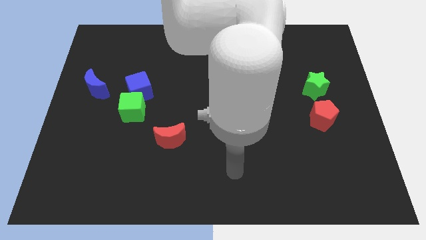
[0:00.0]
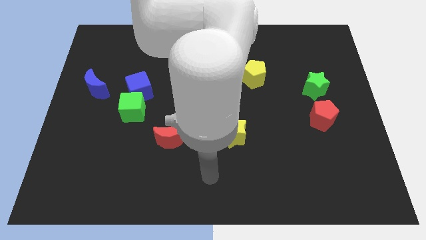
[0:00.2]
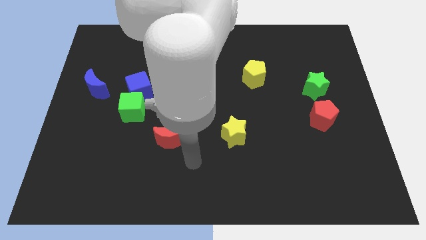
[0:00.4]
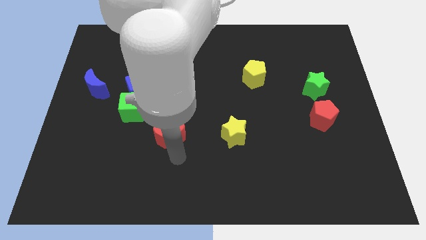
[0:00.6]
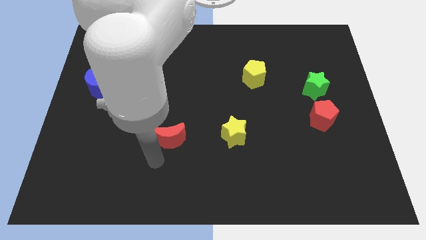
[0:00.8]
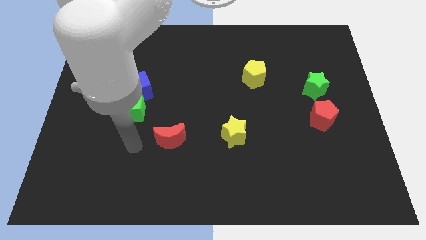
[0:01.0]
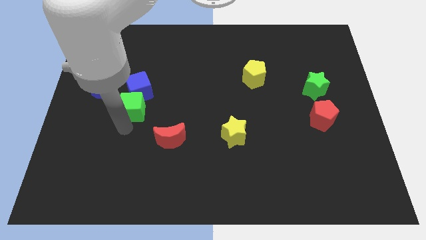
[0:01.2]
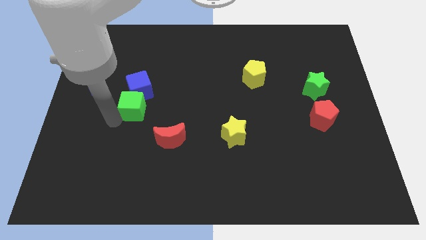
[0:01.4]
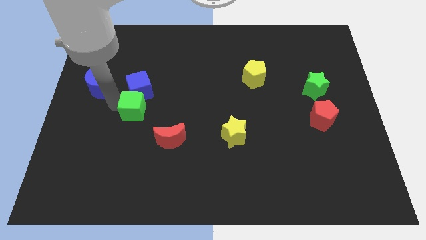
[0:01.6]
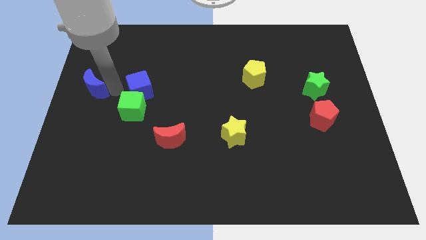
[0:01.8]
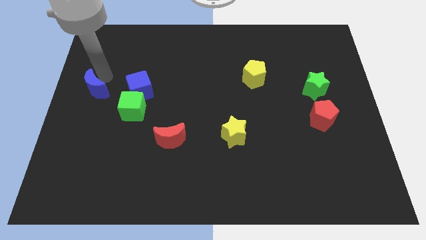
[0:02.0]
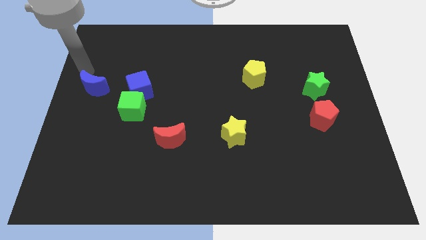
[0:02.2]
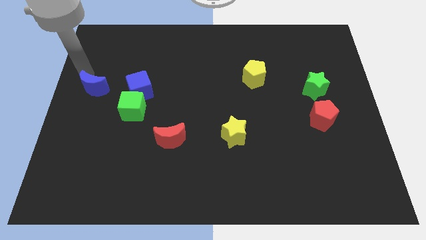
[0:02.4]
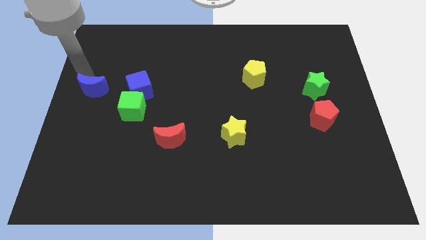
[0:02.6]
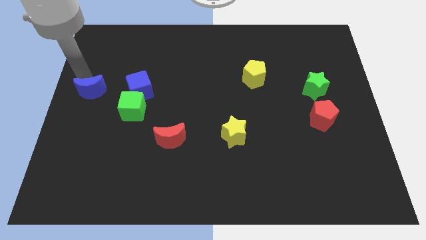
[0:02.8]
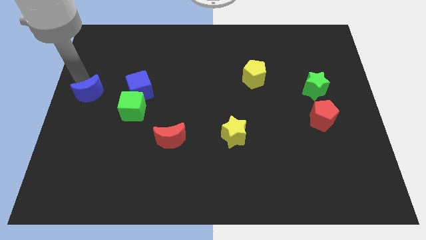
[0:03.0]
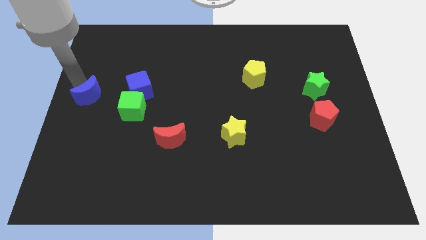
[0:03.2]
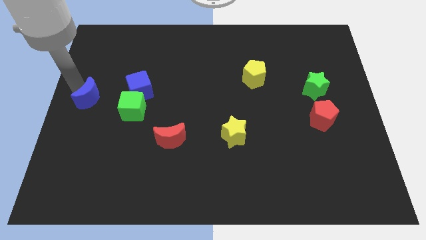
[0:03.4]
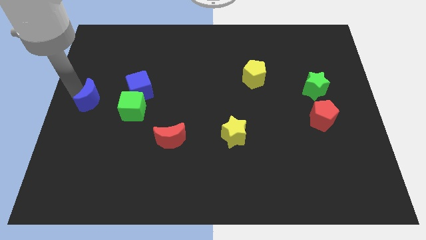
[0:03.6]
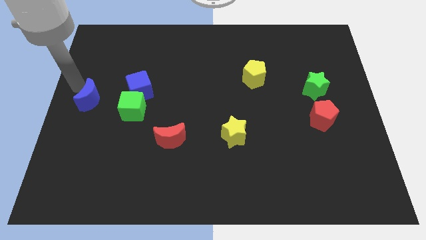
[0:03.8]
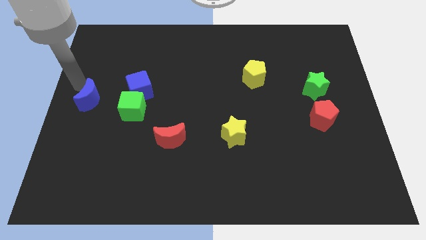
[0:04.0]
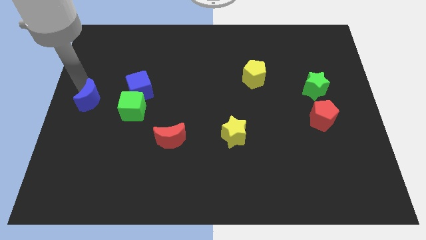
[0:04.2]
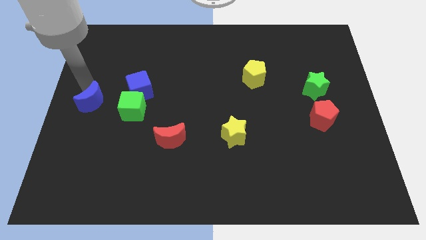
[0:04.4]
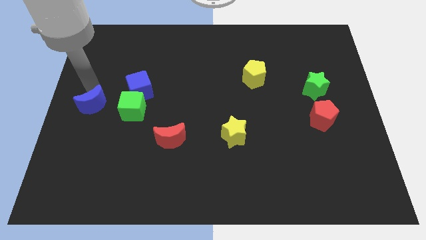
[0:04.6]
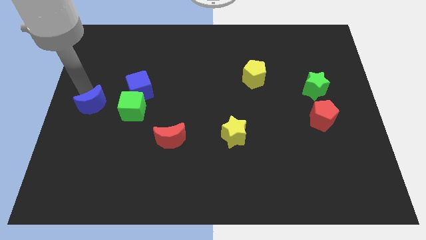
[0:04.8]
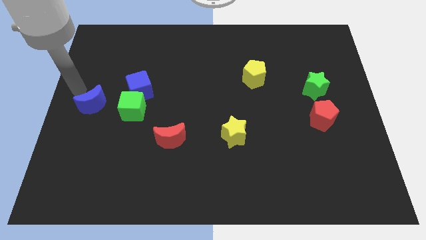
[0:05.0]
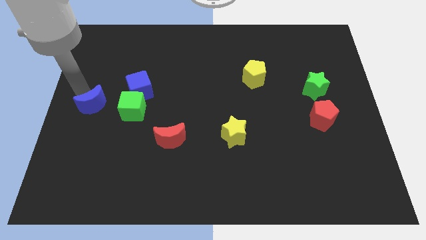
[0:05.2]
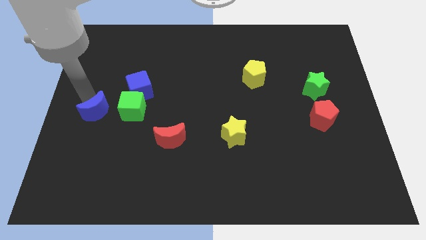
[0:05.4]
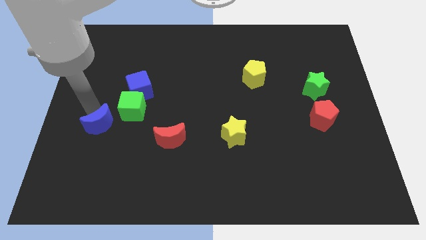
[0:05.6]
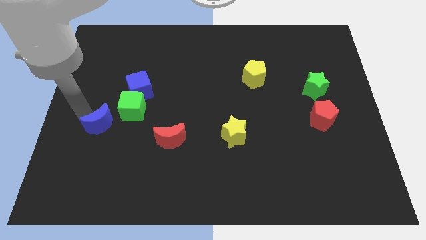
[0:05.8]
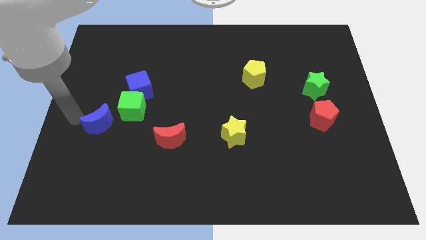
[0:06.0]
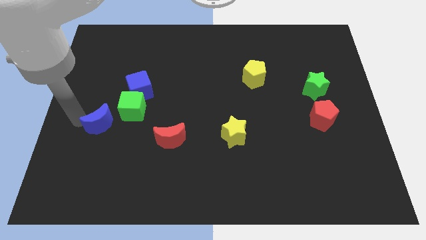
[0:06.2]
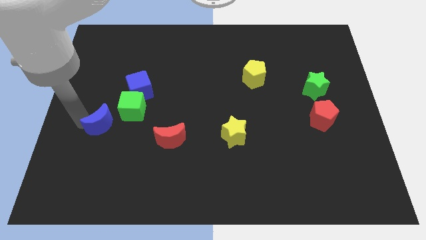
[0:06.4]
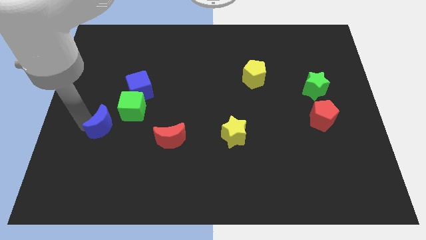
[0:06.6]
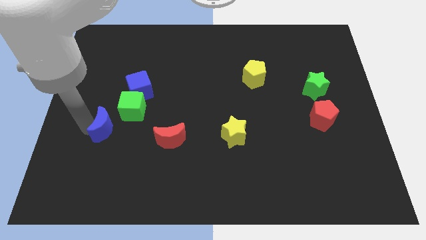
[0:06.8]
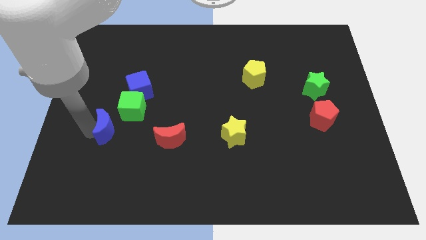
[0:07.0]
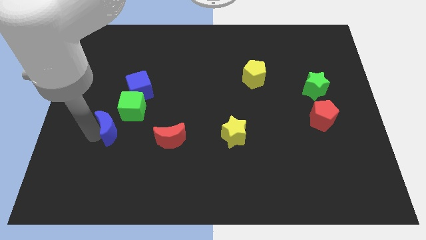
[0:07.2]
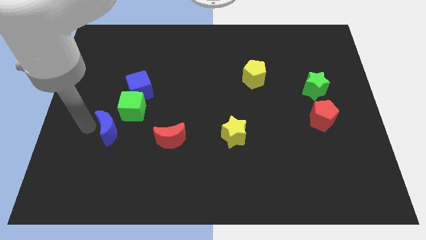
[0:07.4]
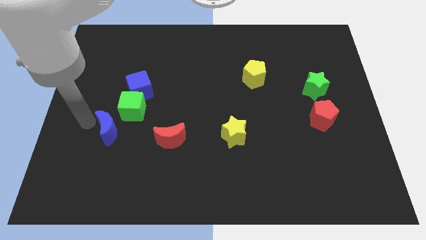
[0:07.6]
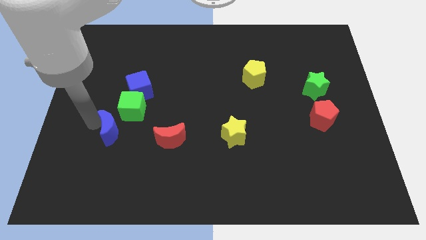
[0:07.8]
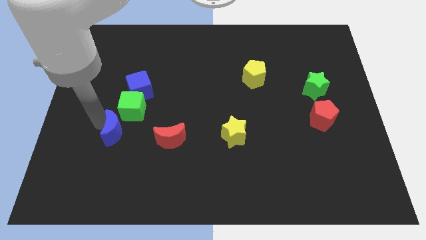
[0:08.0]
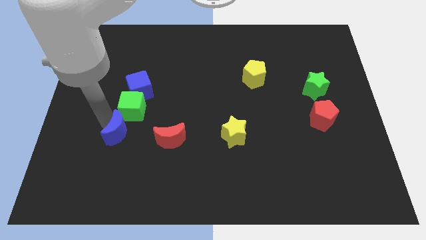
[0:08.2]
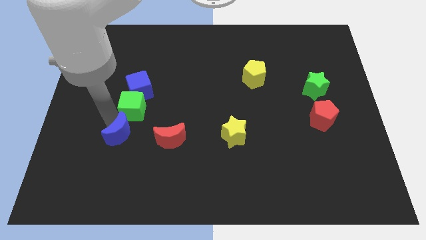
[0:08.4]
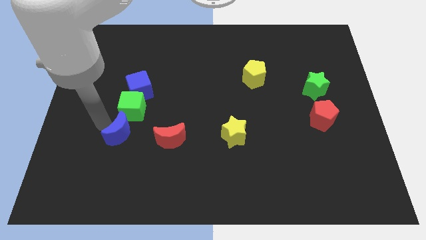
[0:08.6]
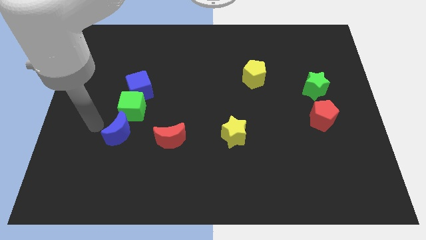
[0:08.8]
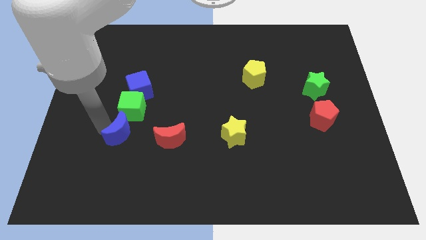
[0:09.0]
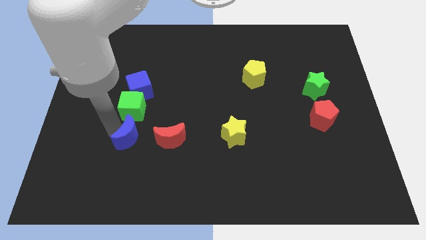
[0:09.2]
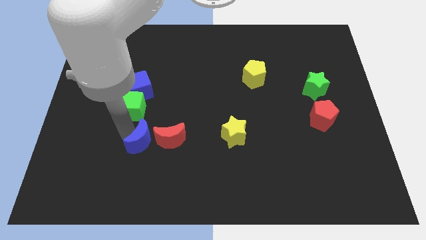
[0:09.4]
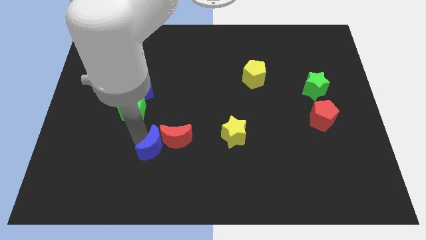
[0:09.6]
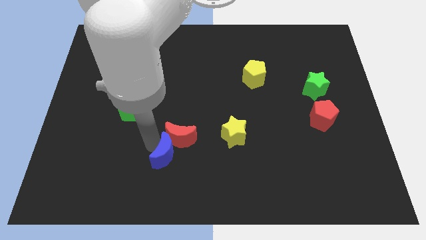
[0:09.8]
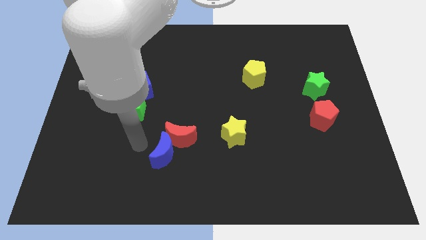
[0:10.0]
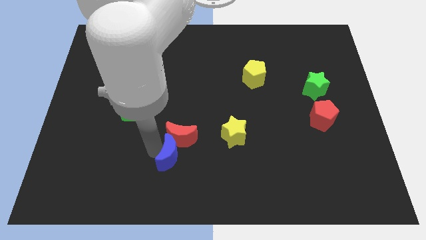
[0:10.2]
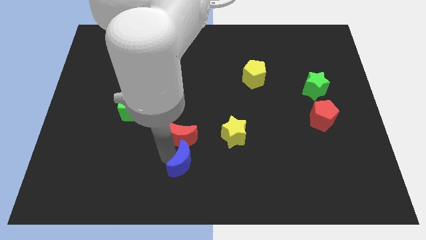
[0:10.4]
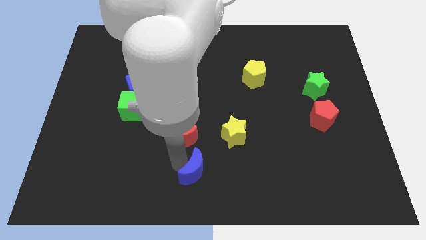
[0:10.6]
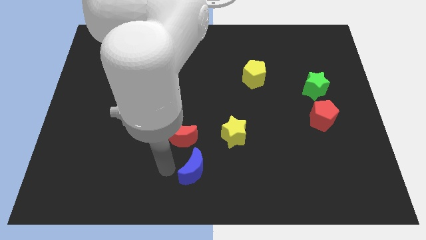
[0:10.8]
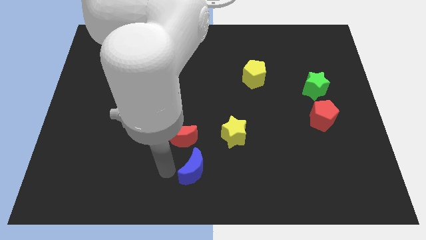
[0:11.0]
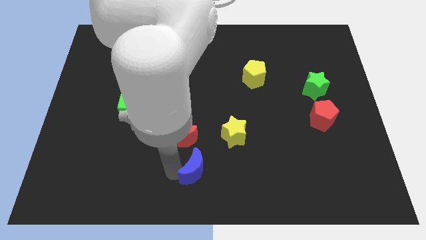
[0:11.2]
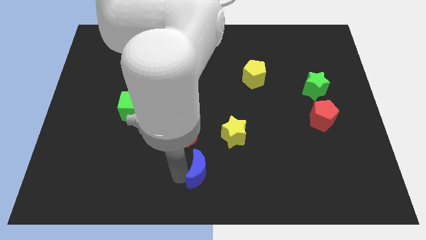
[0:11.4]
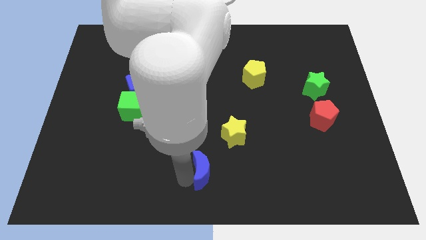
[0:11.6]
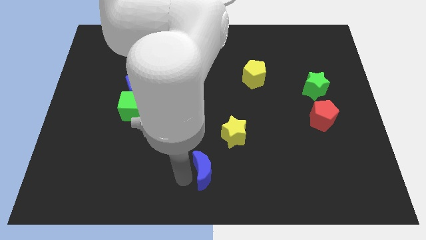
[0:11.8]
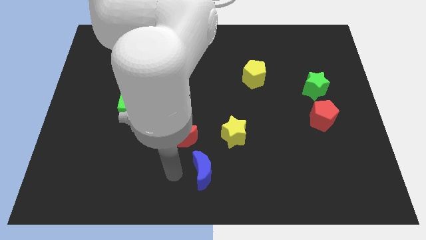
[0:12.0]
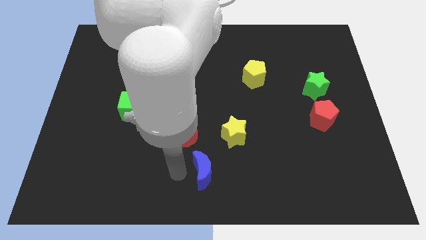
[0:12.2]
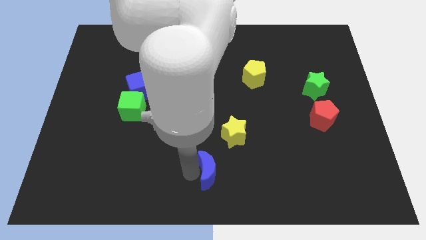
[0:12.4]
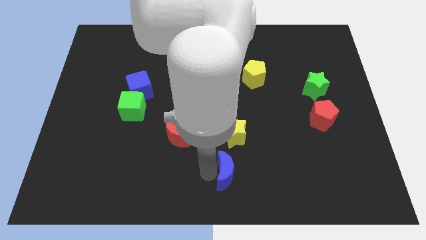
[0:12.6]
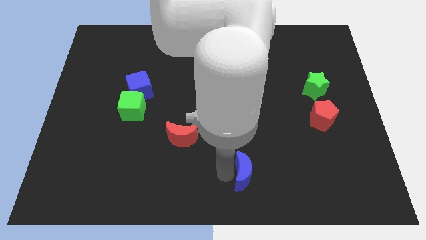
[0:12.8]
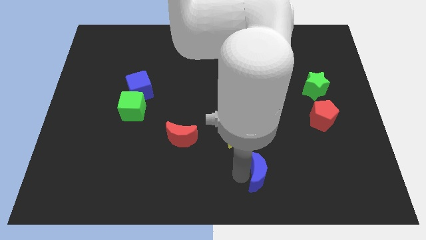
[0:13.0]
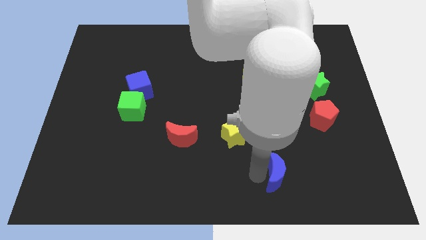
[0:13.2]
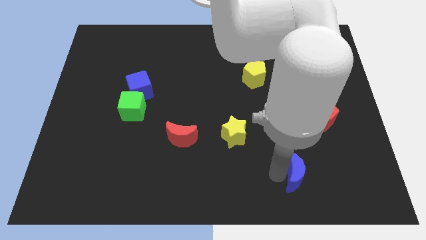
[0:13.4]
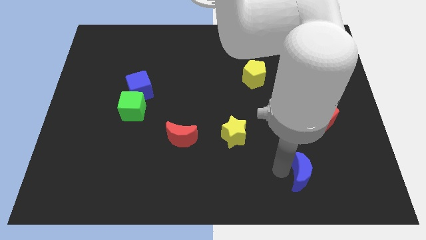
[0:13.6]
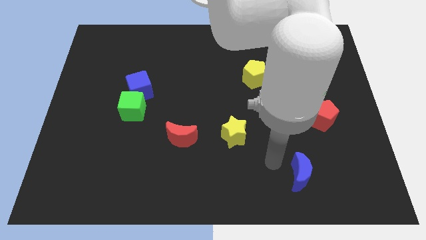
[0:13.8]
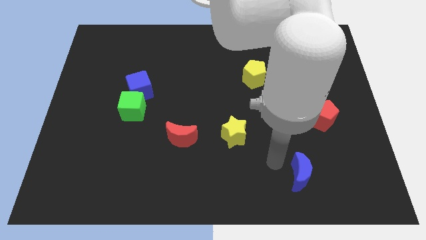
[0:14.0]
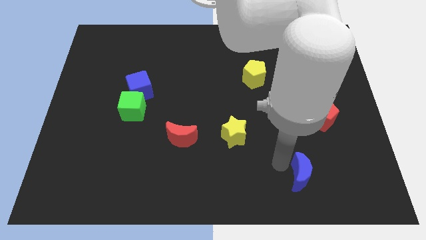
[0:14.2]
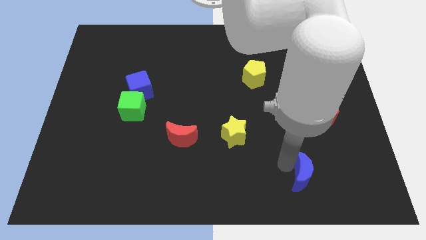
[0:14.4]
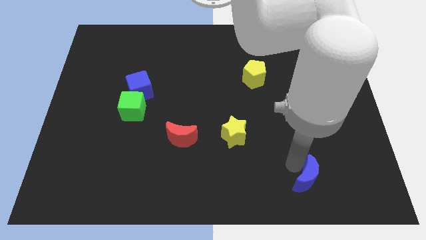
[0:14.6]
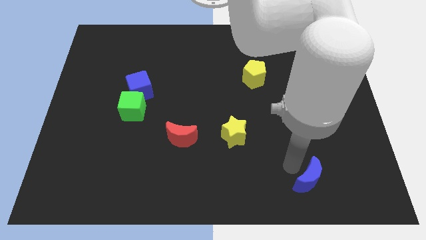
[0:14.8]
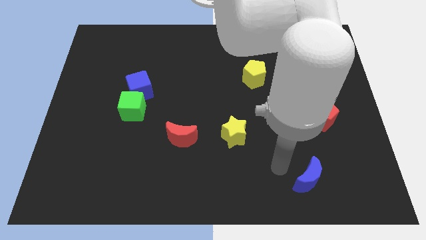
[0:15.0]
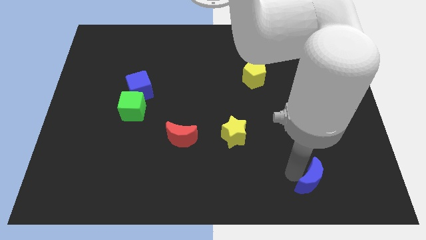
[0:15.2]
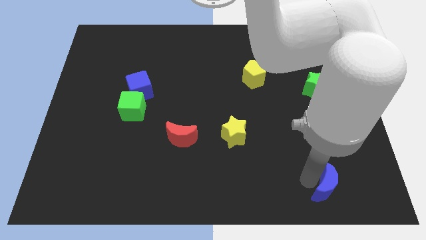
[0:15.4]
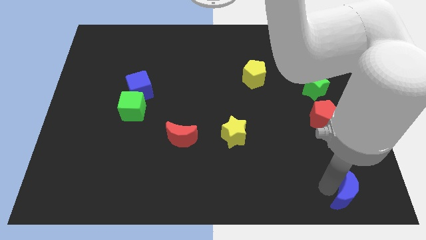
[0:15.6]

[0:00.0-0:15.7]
move the blue moon to the bottom right of the board
